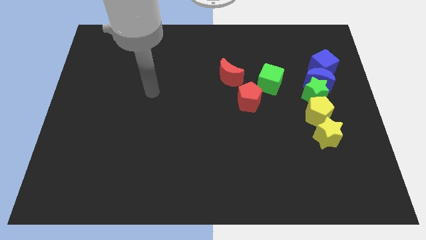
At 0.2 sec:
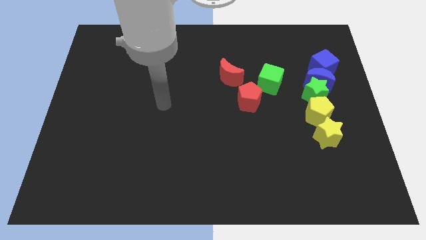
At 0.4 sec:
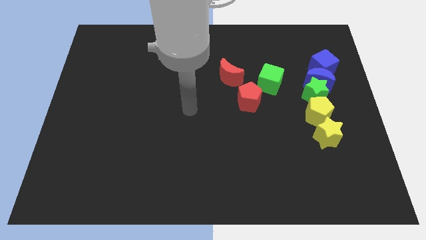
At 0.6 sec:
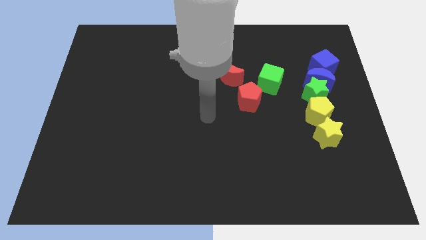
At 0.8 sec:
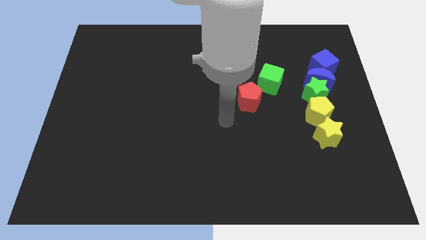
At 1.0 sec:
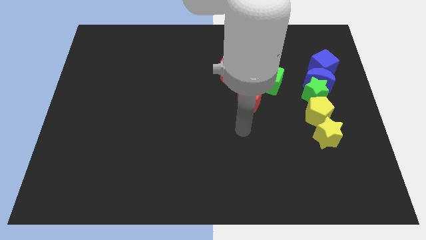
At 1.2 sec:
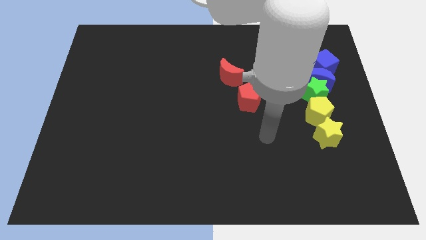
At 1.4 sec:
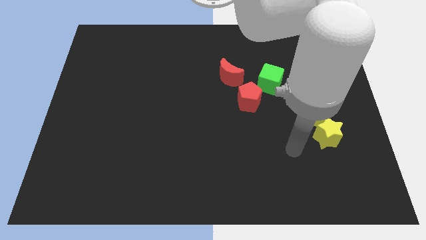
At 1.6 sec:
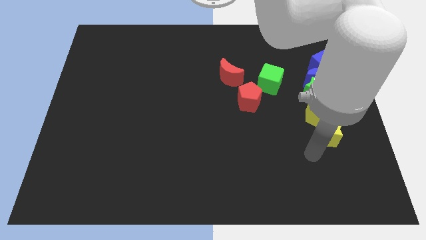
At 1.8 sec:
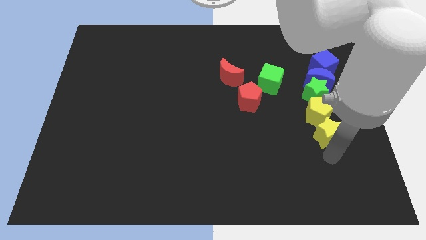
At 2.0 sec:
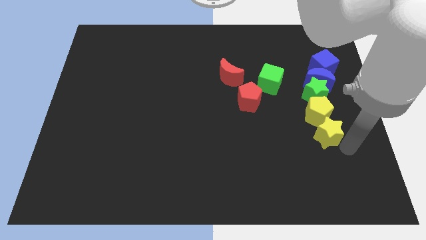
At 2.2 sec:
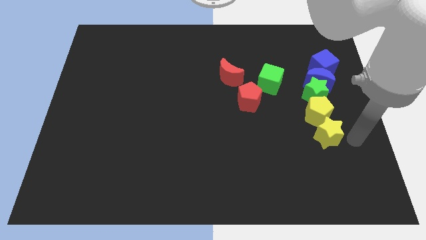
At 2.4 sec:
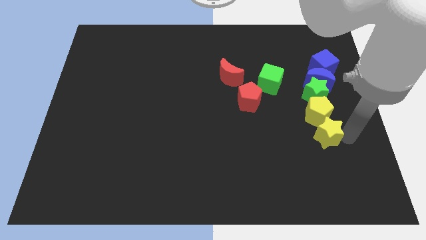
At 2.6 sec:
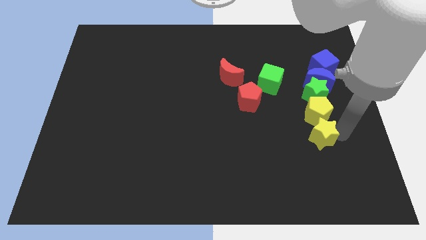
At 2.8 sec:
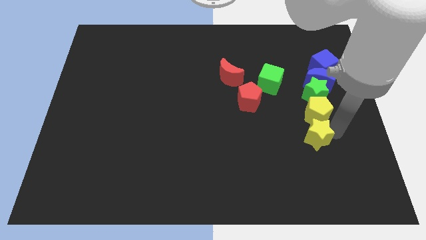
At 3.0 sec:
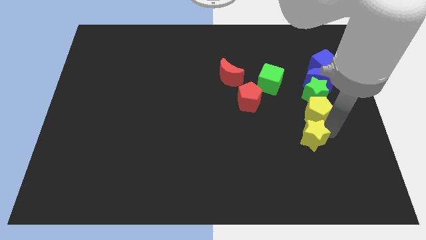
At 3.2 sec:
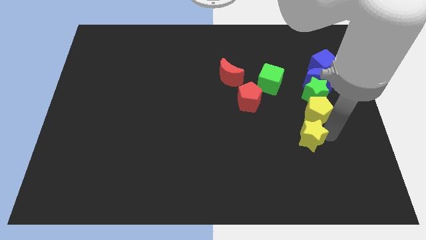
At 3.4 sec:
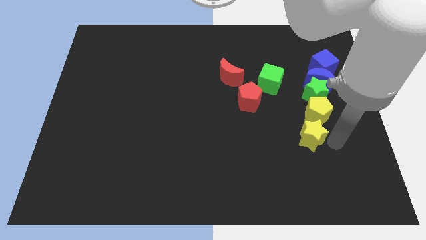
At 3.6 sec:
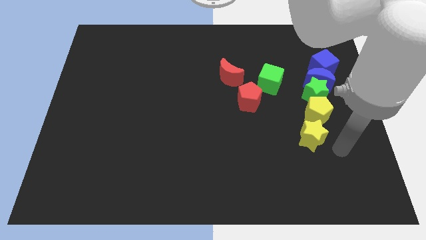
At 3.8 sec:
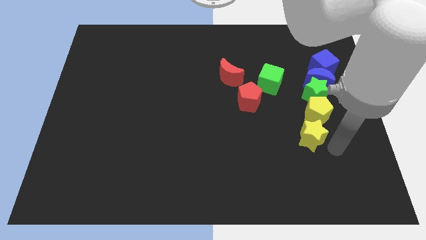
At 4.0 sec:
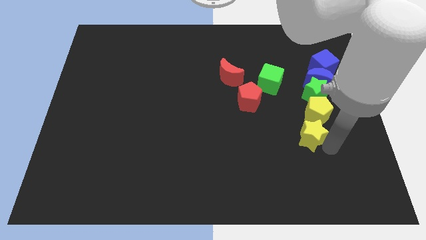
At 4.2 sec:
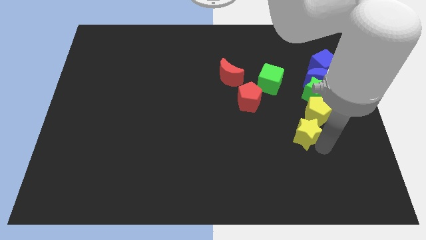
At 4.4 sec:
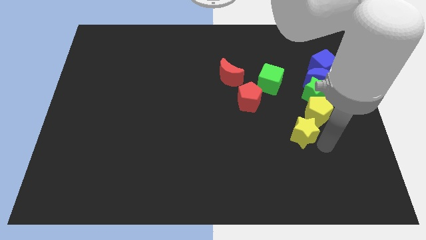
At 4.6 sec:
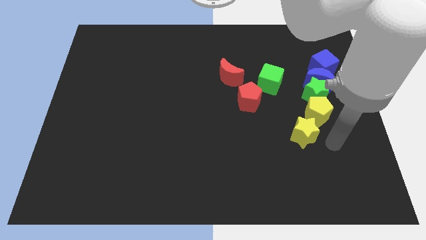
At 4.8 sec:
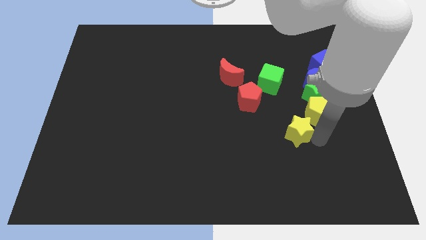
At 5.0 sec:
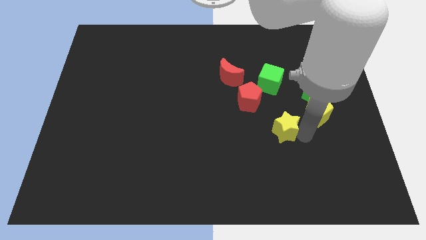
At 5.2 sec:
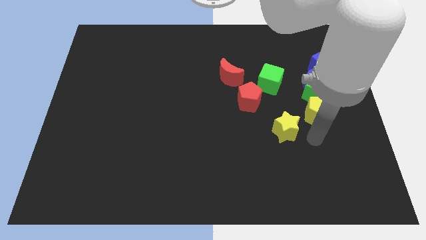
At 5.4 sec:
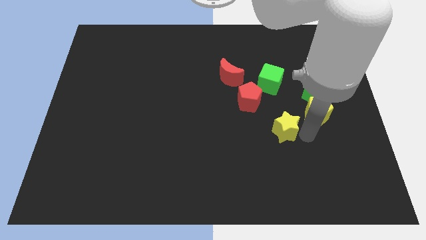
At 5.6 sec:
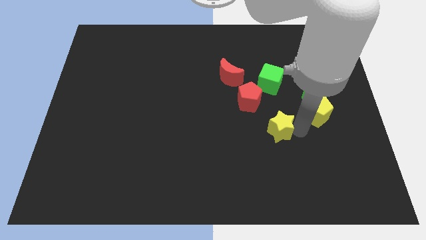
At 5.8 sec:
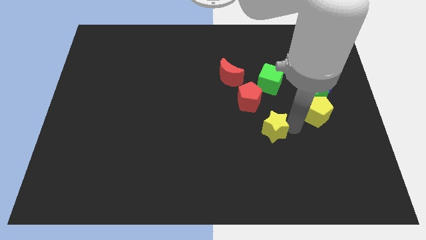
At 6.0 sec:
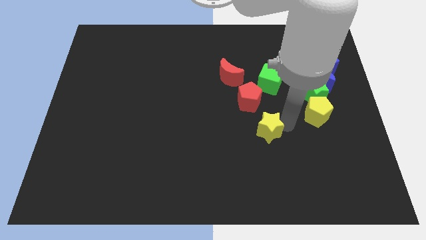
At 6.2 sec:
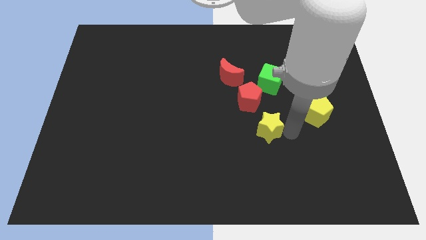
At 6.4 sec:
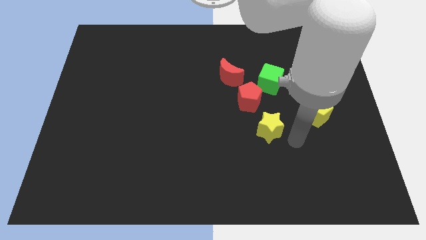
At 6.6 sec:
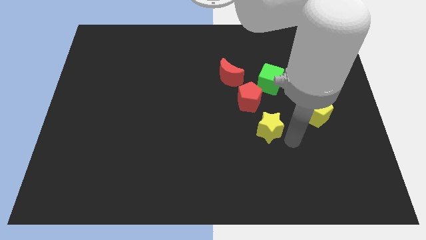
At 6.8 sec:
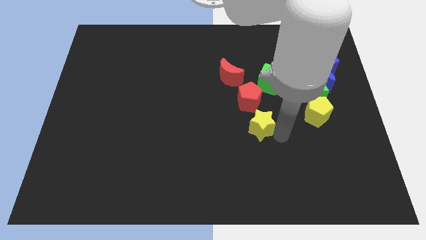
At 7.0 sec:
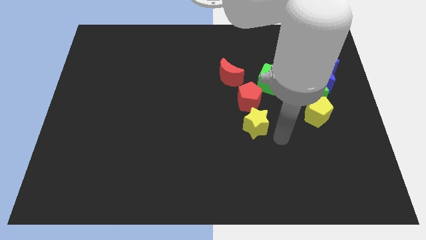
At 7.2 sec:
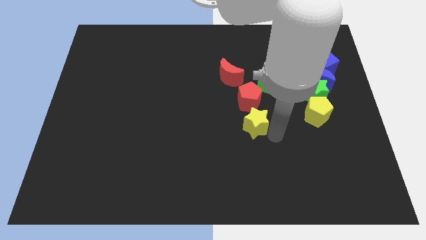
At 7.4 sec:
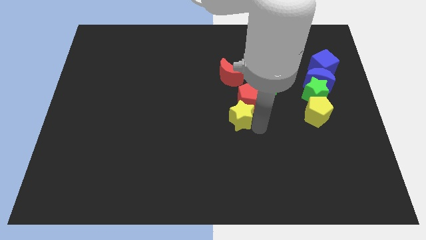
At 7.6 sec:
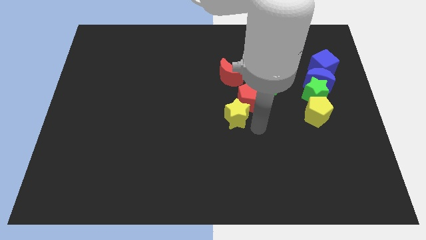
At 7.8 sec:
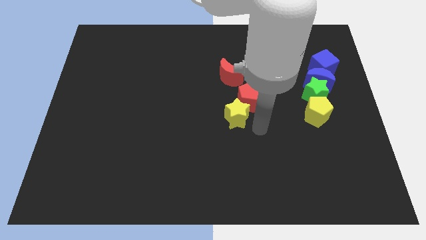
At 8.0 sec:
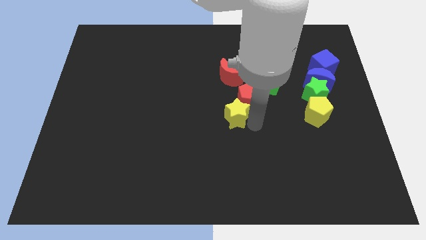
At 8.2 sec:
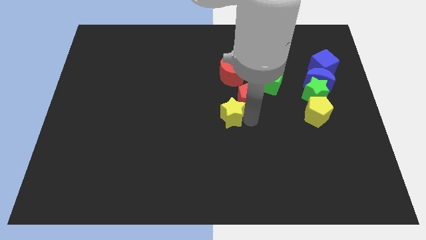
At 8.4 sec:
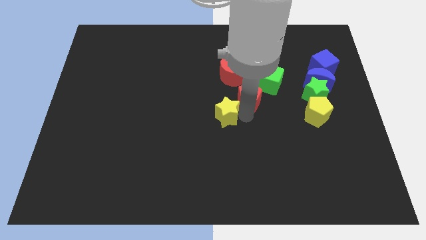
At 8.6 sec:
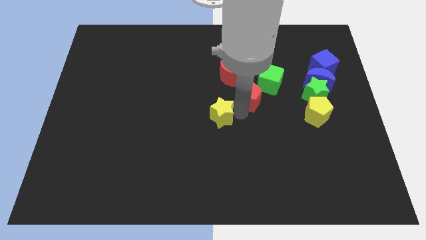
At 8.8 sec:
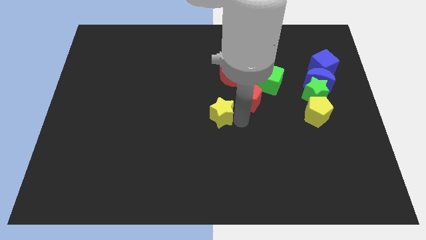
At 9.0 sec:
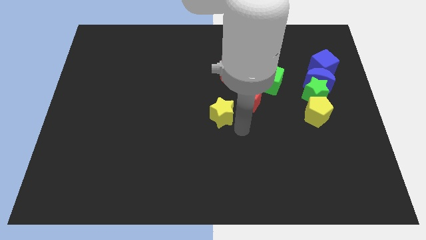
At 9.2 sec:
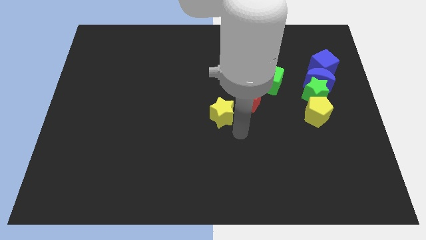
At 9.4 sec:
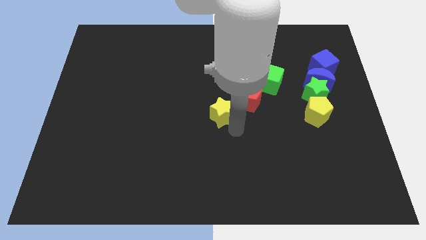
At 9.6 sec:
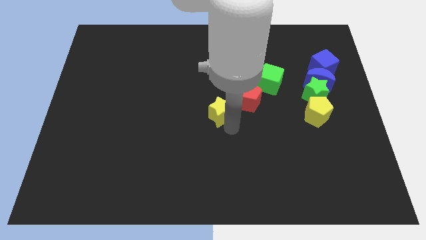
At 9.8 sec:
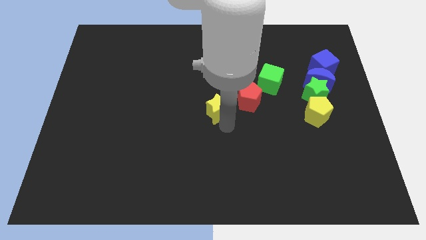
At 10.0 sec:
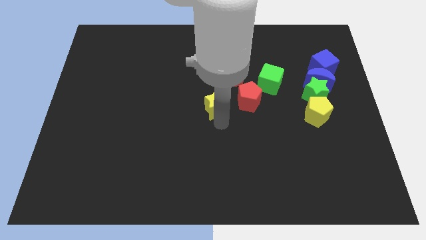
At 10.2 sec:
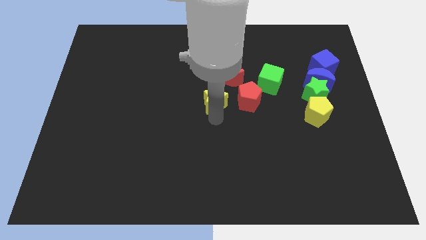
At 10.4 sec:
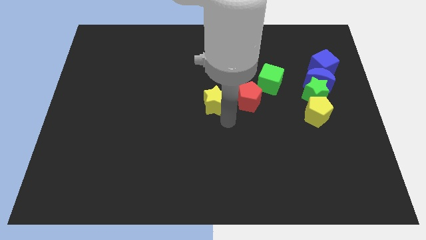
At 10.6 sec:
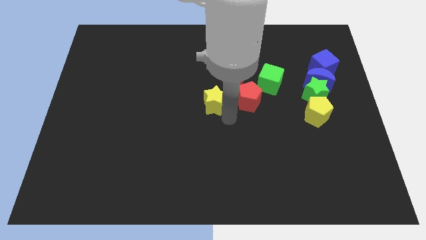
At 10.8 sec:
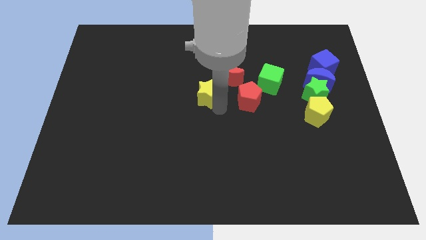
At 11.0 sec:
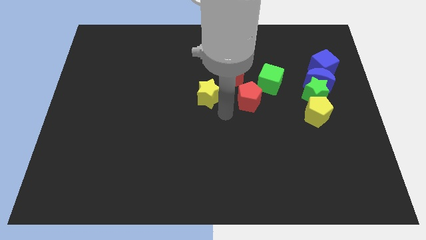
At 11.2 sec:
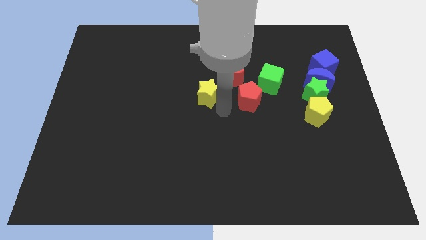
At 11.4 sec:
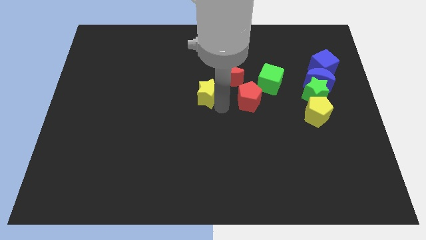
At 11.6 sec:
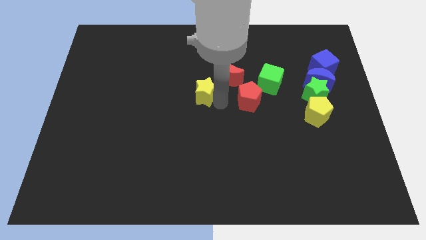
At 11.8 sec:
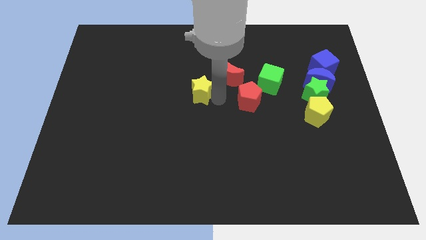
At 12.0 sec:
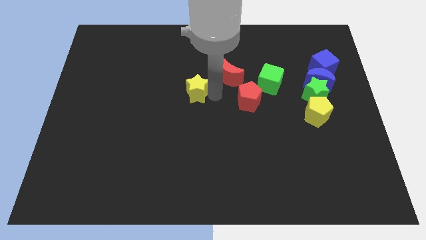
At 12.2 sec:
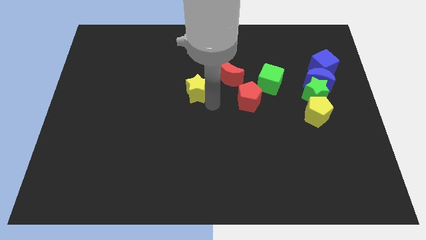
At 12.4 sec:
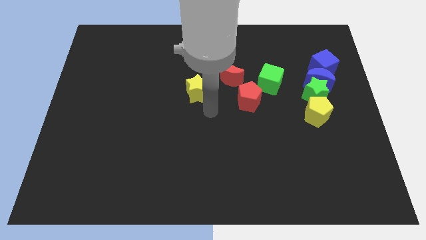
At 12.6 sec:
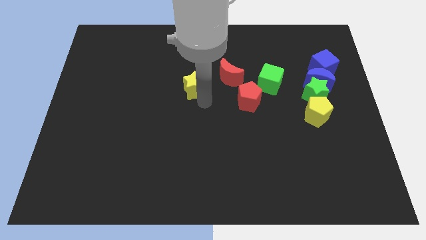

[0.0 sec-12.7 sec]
put the yellow star just left of the red moon

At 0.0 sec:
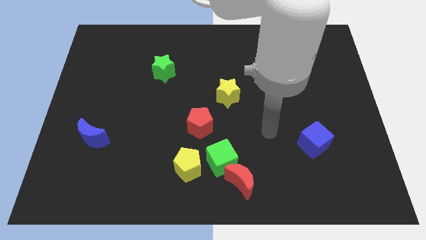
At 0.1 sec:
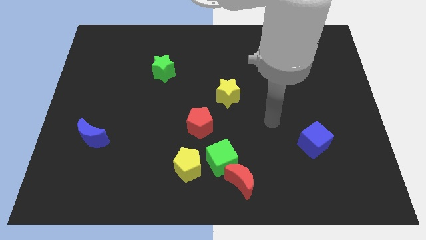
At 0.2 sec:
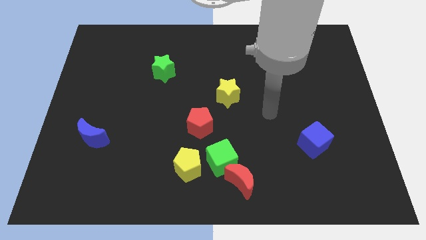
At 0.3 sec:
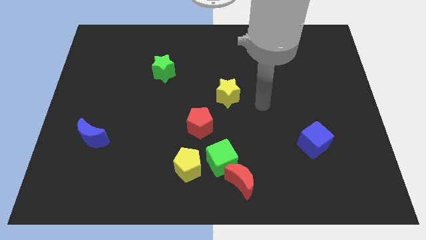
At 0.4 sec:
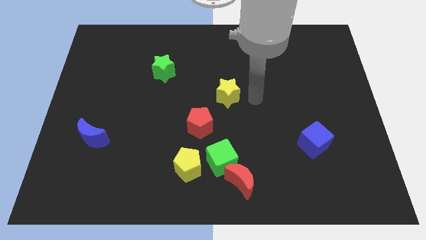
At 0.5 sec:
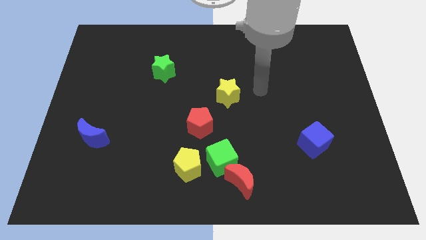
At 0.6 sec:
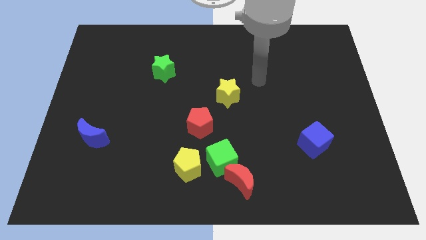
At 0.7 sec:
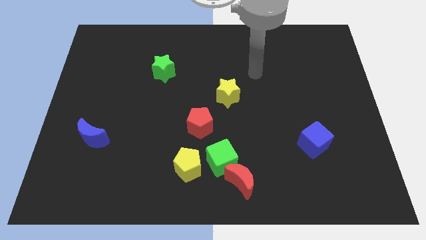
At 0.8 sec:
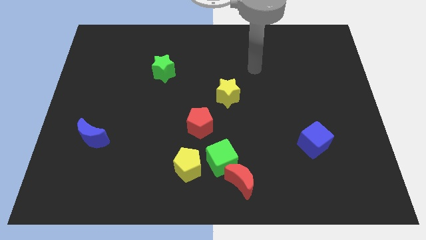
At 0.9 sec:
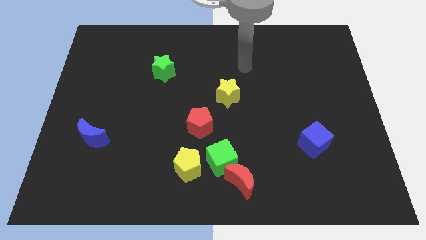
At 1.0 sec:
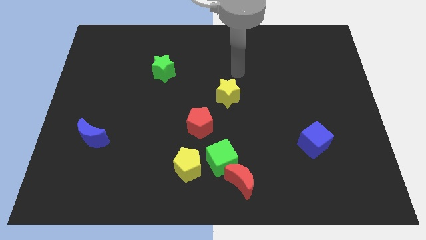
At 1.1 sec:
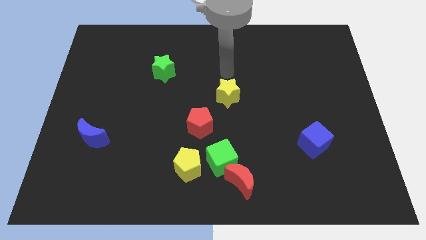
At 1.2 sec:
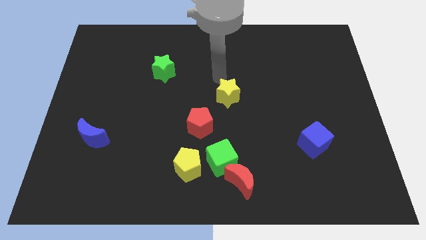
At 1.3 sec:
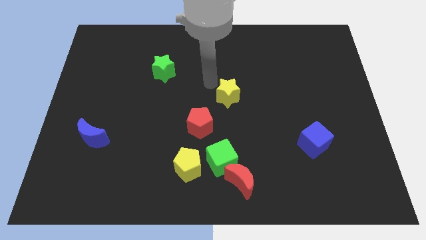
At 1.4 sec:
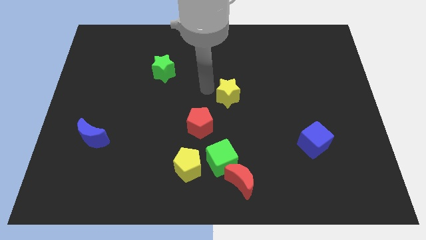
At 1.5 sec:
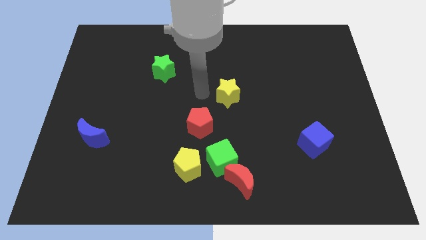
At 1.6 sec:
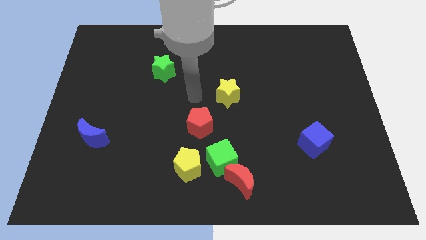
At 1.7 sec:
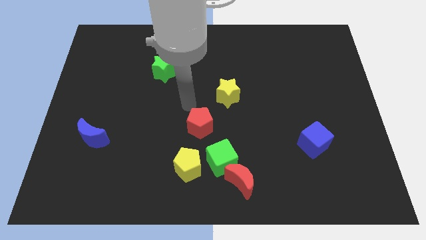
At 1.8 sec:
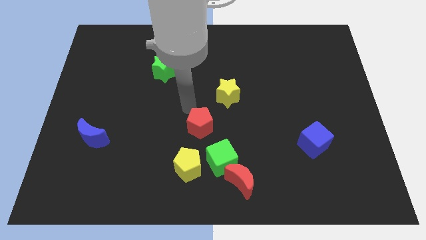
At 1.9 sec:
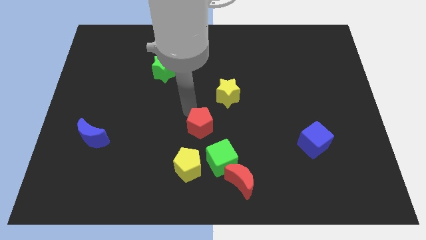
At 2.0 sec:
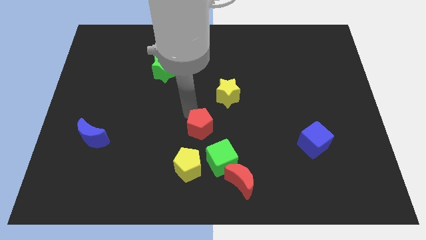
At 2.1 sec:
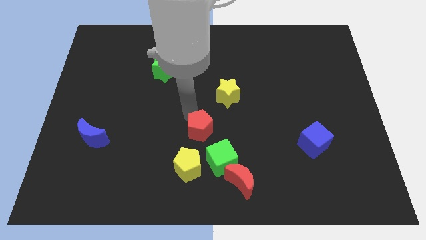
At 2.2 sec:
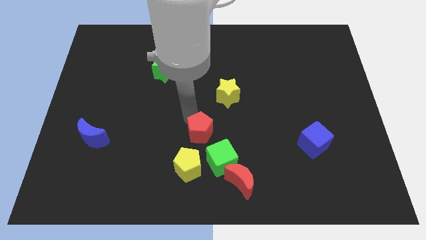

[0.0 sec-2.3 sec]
slide the red pentagon to the top right of the yellow pentagon
